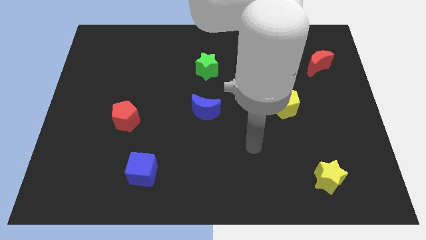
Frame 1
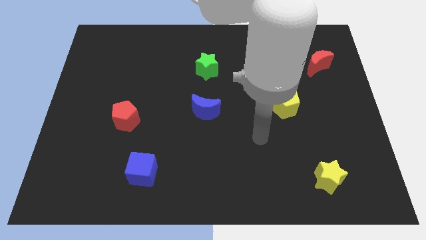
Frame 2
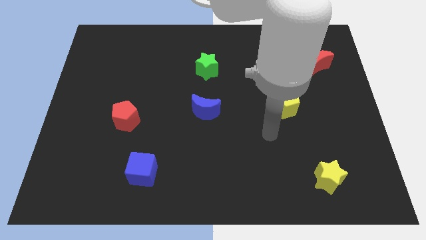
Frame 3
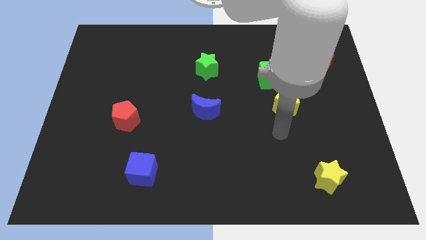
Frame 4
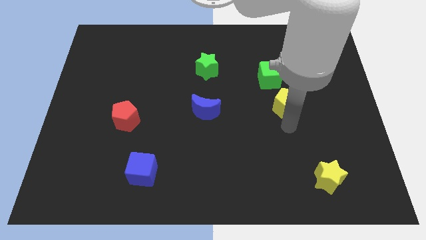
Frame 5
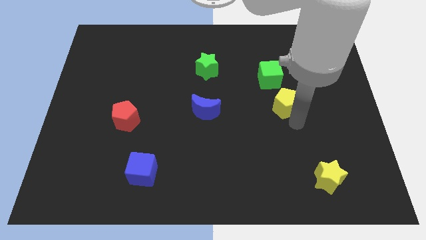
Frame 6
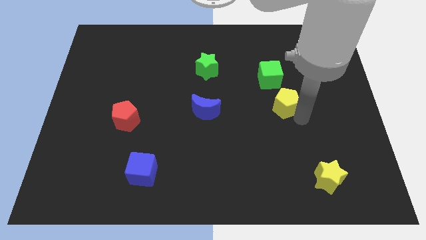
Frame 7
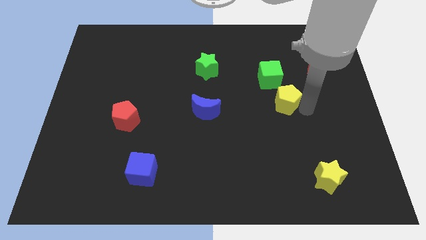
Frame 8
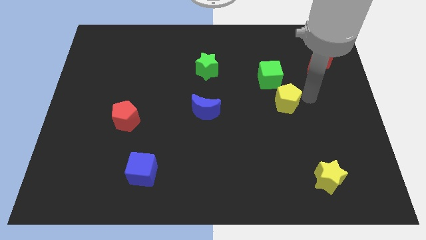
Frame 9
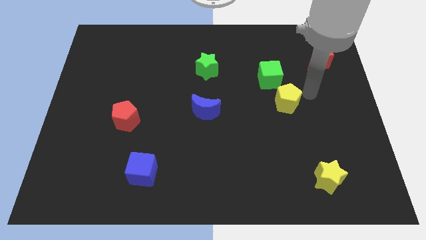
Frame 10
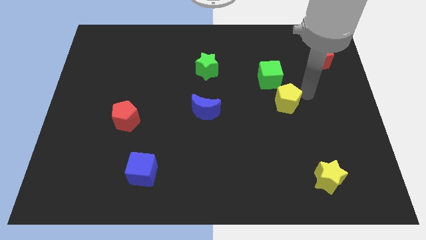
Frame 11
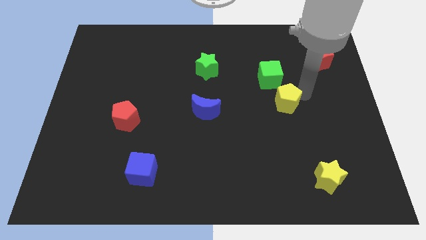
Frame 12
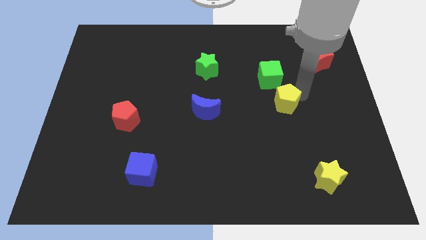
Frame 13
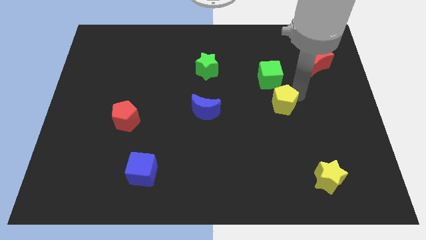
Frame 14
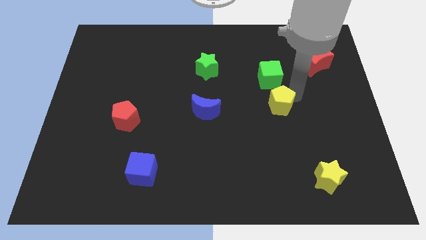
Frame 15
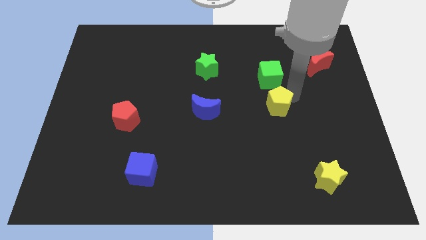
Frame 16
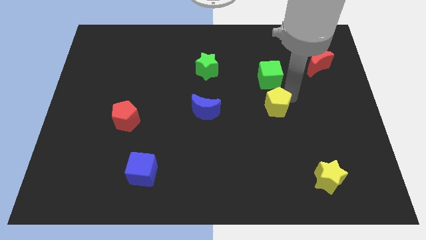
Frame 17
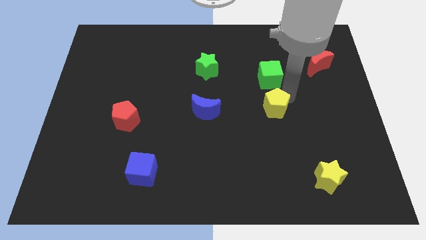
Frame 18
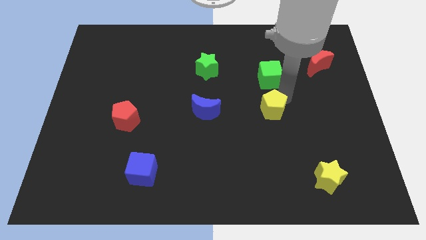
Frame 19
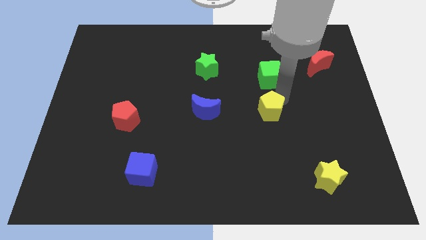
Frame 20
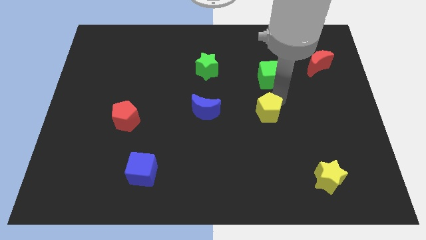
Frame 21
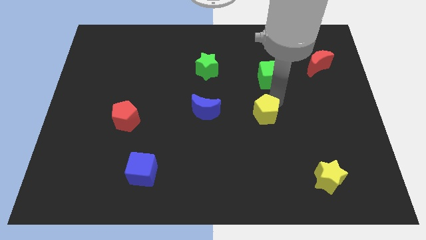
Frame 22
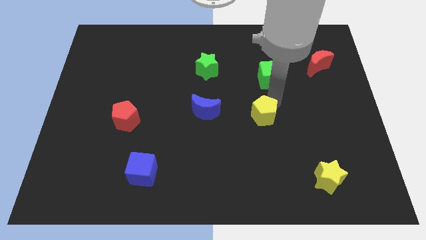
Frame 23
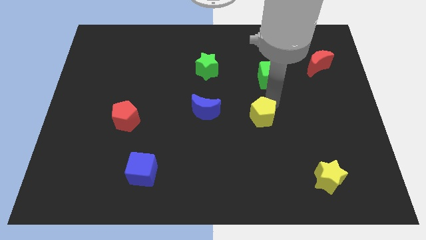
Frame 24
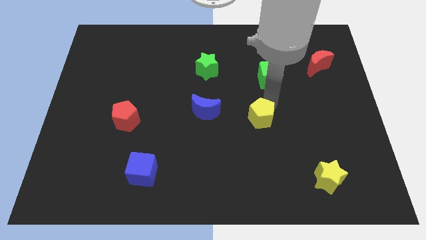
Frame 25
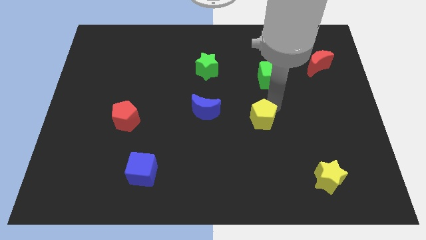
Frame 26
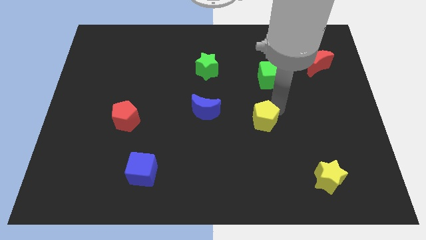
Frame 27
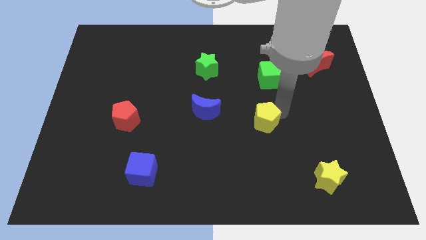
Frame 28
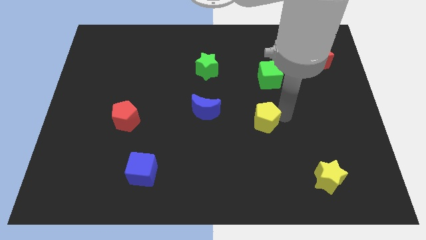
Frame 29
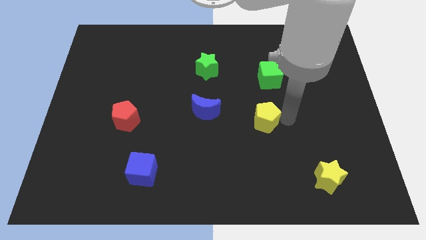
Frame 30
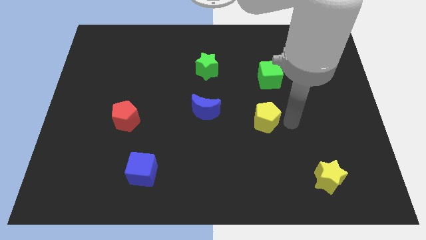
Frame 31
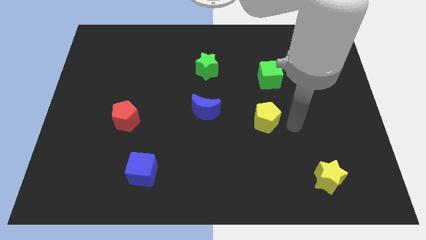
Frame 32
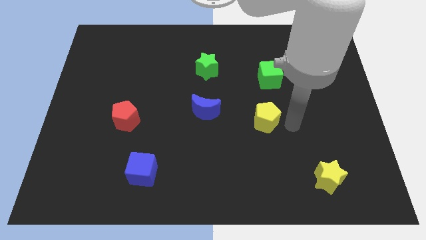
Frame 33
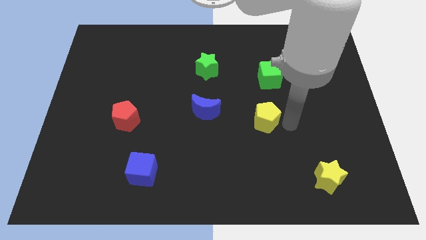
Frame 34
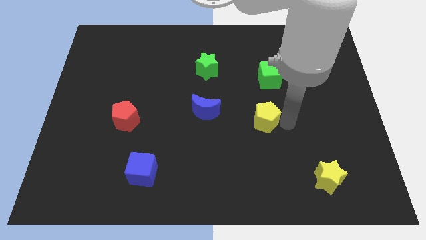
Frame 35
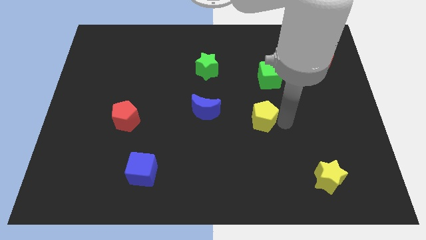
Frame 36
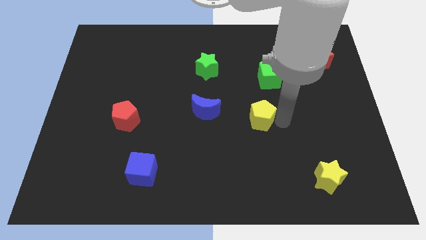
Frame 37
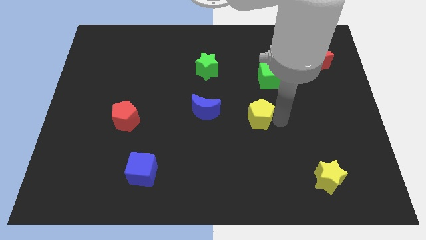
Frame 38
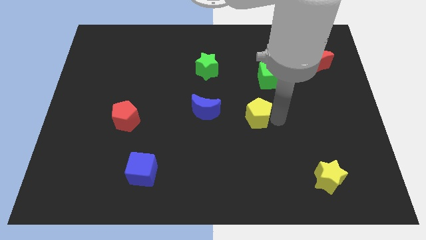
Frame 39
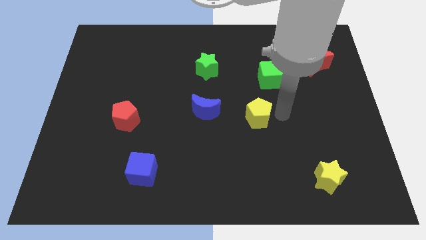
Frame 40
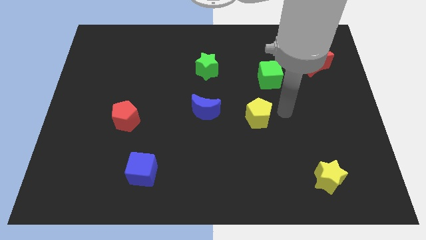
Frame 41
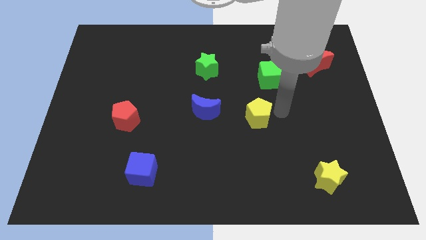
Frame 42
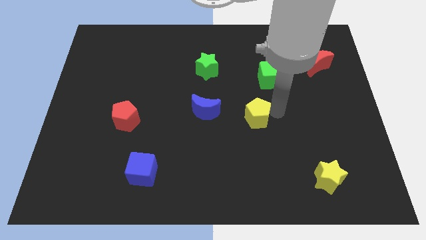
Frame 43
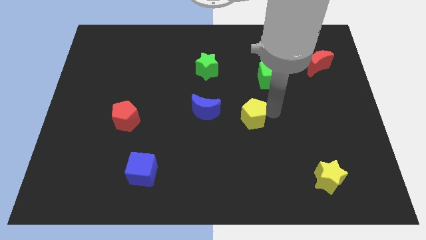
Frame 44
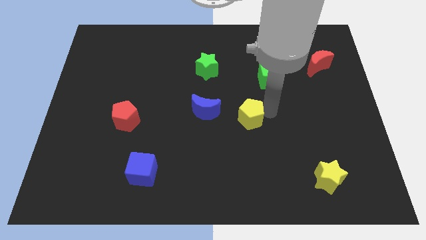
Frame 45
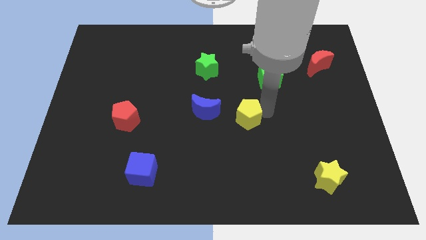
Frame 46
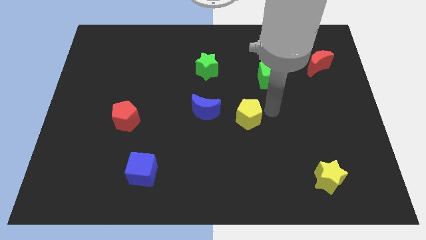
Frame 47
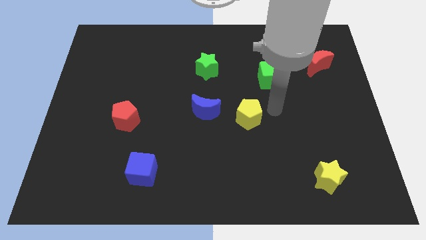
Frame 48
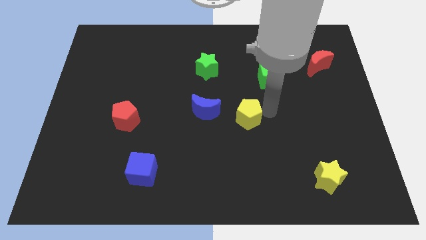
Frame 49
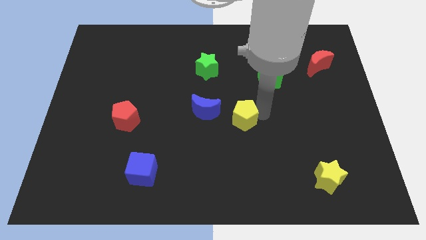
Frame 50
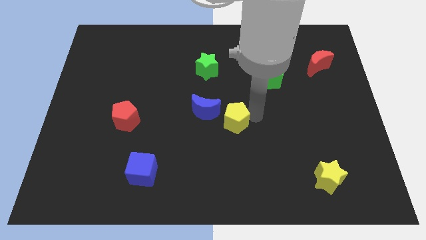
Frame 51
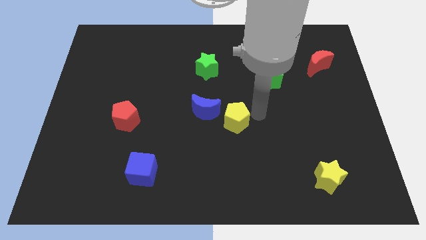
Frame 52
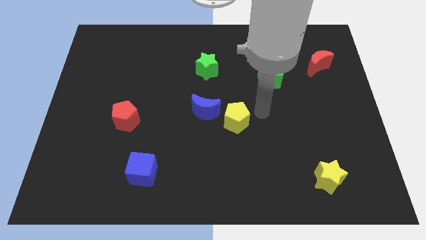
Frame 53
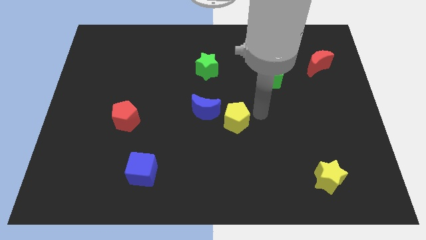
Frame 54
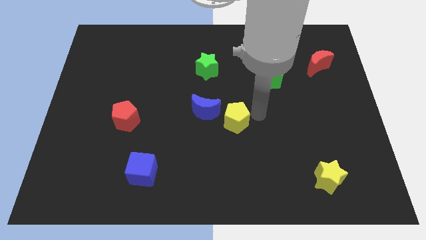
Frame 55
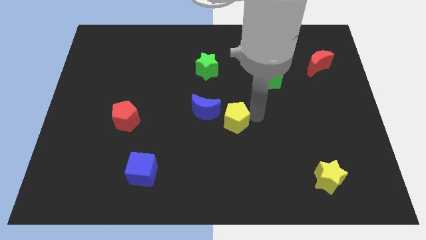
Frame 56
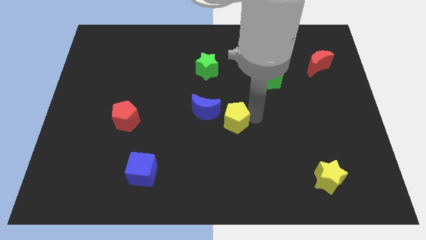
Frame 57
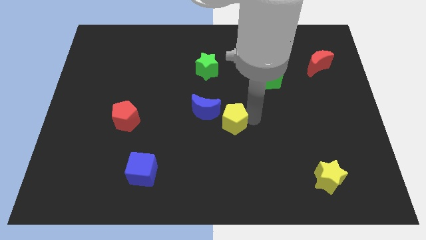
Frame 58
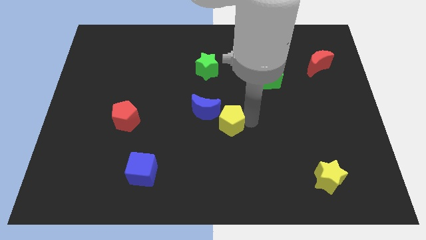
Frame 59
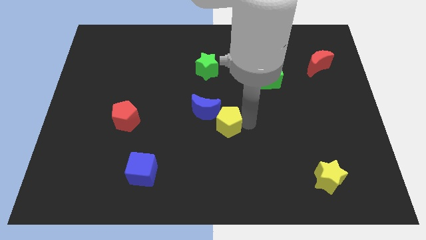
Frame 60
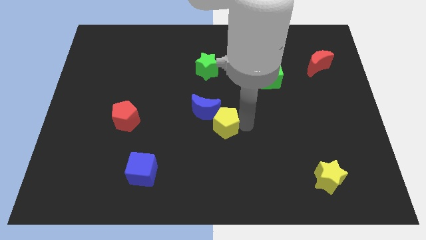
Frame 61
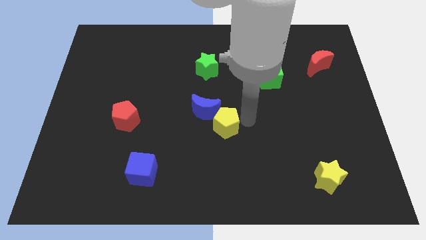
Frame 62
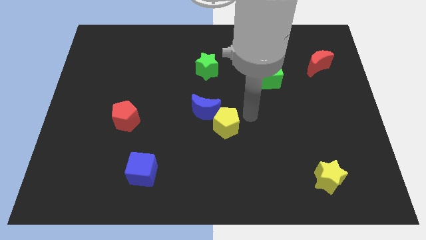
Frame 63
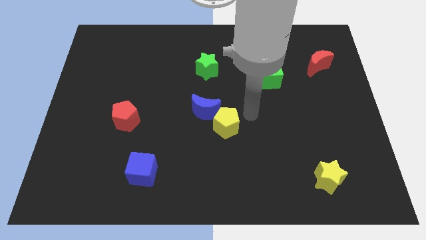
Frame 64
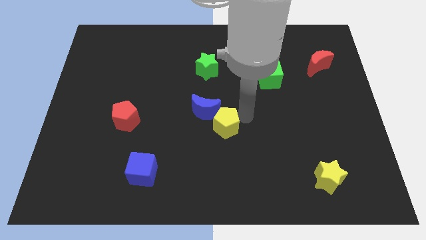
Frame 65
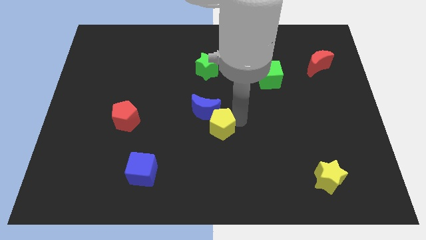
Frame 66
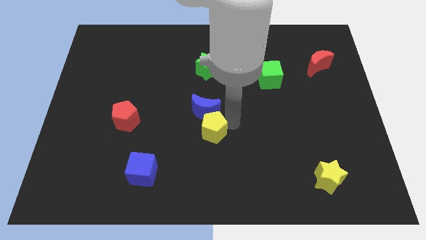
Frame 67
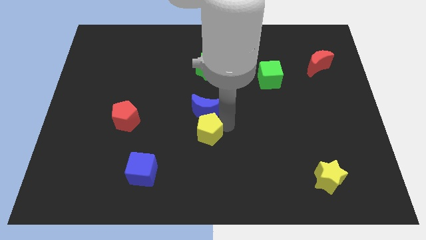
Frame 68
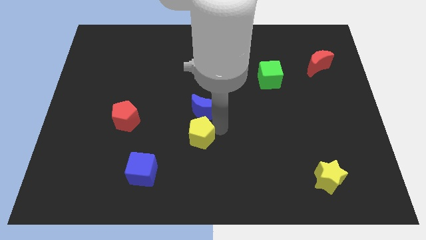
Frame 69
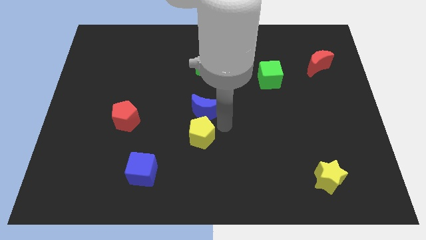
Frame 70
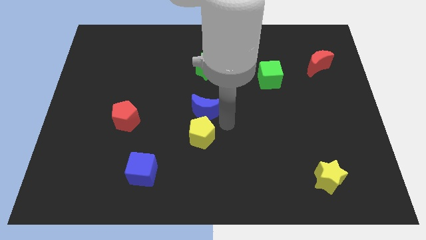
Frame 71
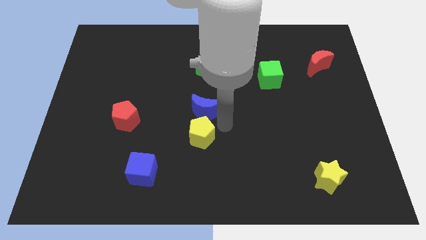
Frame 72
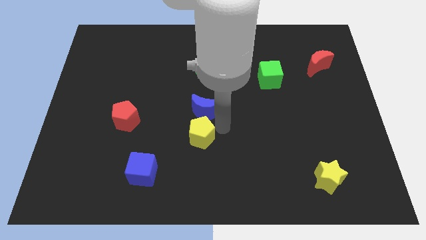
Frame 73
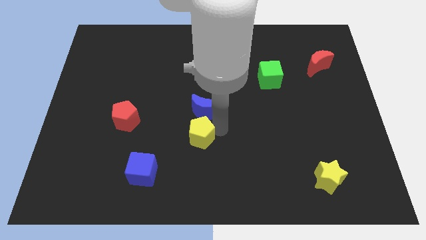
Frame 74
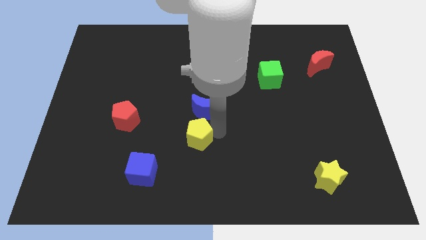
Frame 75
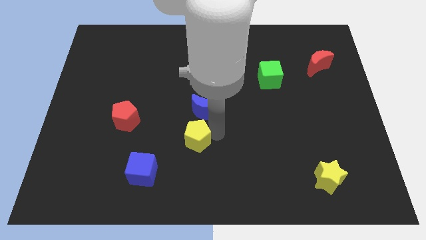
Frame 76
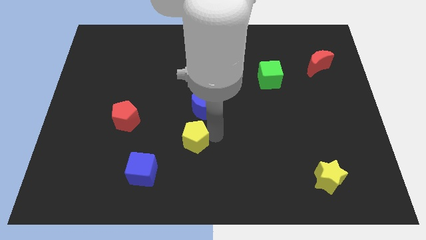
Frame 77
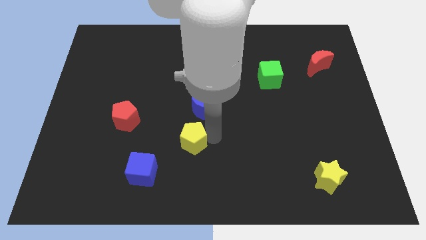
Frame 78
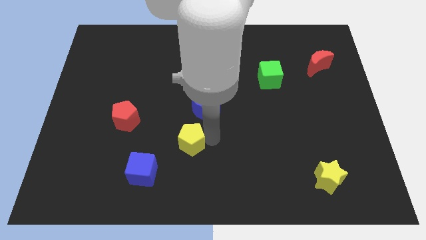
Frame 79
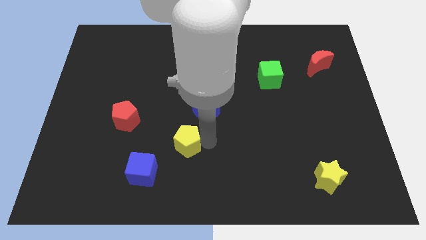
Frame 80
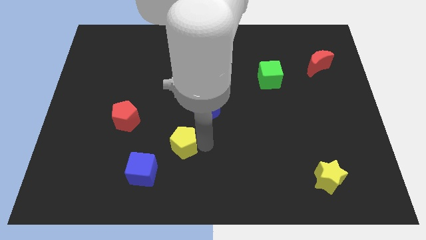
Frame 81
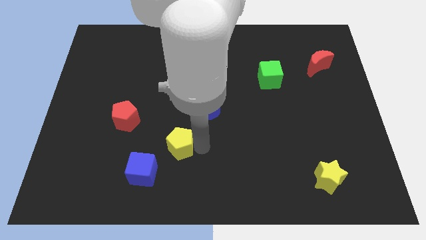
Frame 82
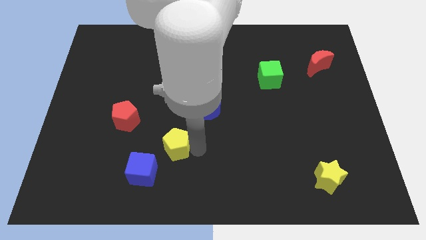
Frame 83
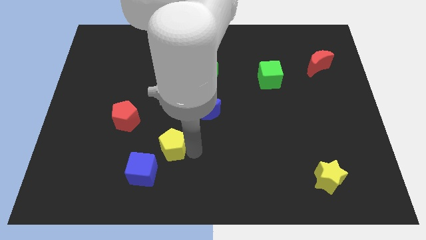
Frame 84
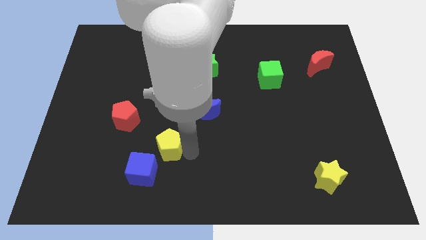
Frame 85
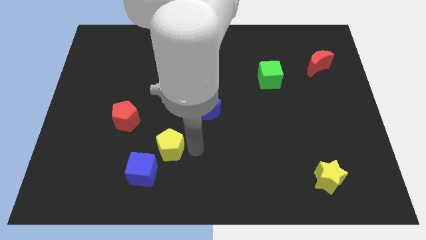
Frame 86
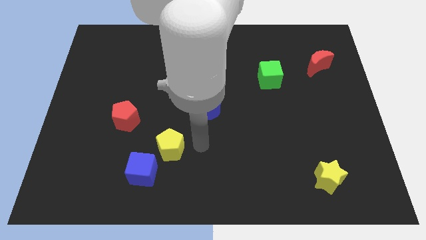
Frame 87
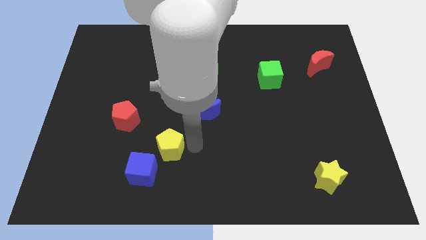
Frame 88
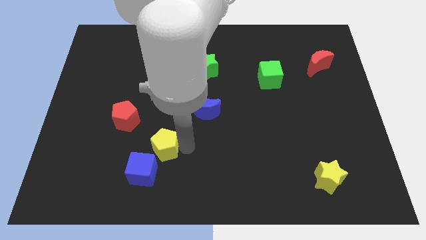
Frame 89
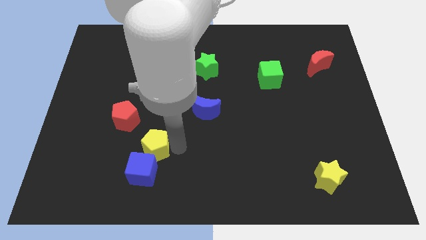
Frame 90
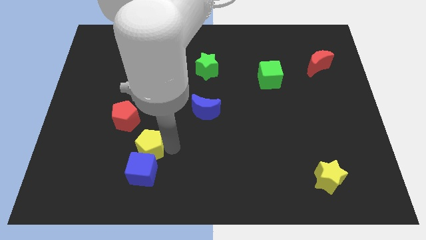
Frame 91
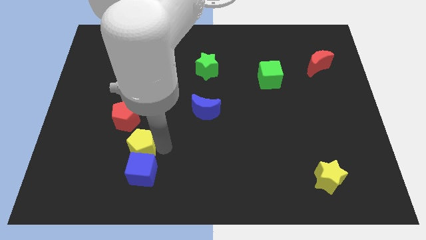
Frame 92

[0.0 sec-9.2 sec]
move the yellow pentagon below the red pentagon
